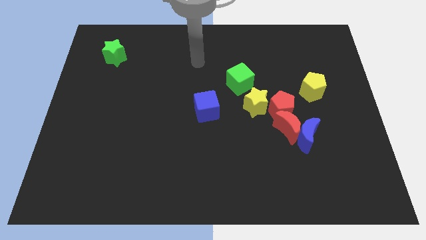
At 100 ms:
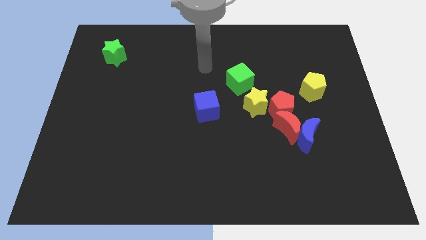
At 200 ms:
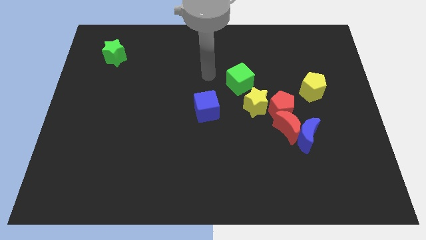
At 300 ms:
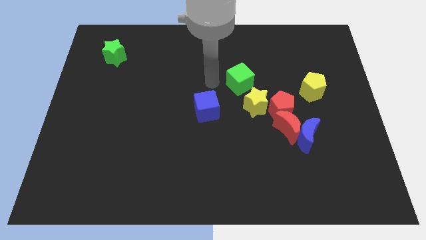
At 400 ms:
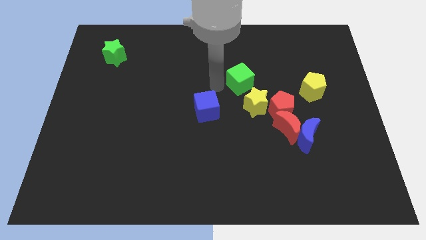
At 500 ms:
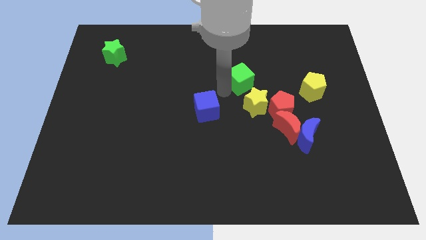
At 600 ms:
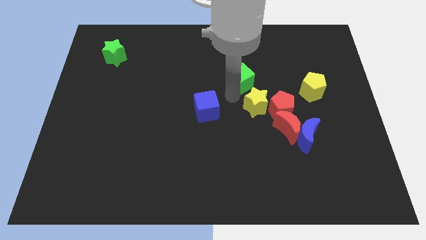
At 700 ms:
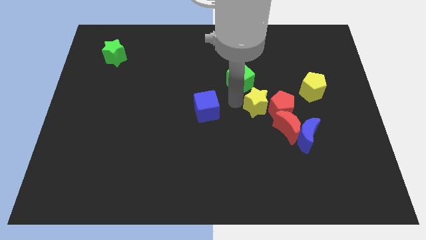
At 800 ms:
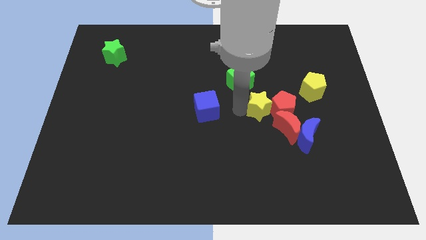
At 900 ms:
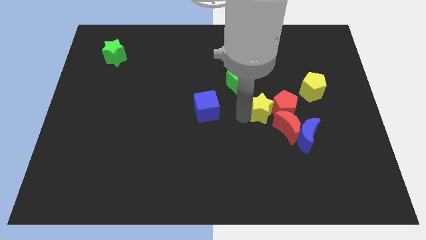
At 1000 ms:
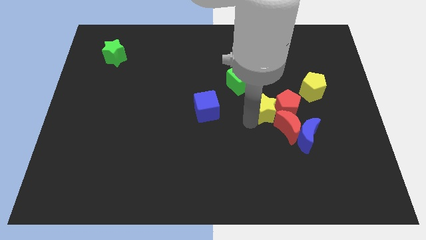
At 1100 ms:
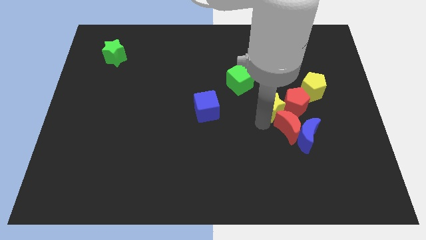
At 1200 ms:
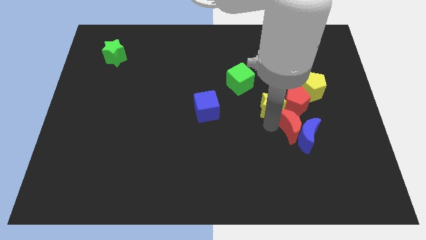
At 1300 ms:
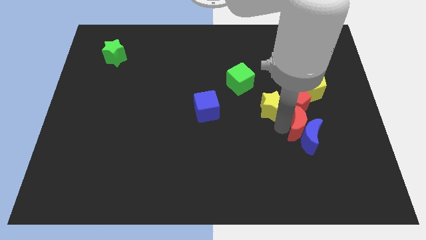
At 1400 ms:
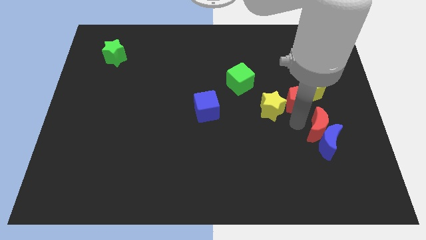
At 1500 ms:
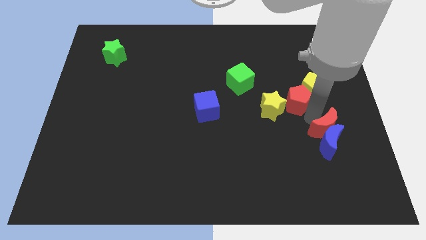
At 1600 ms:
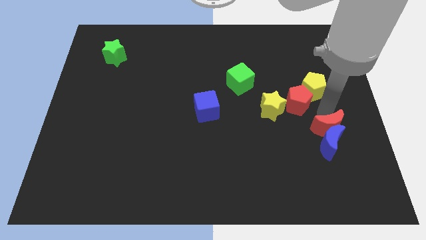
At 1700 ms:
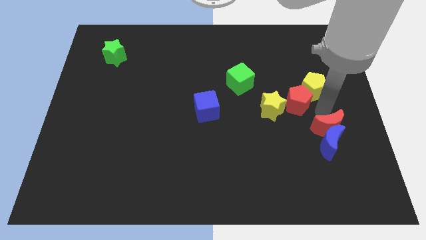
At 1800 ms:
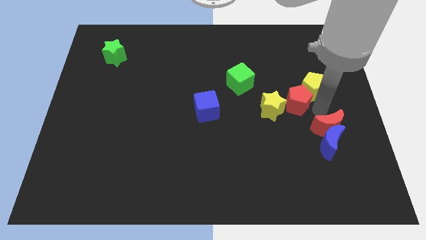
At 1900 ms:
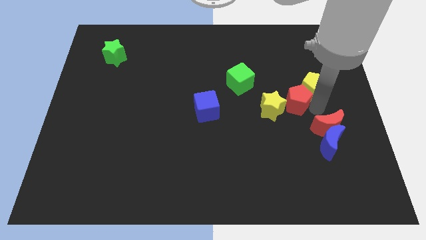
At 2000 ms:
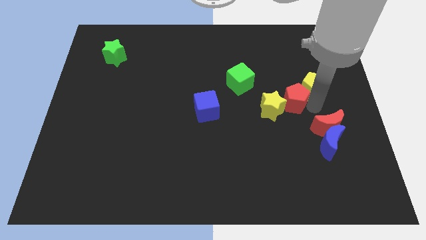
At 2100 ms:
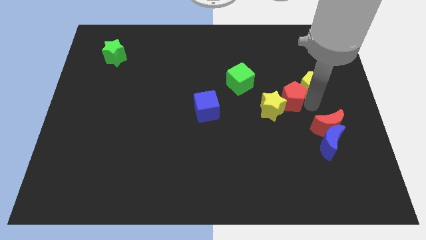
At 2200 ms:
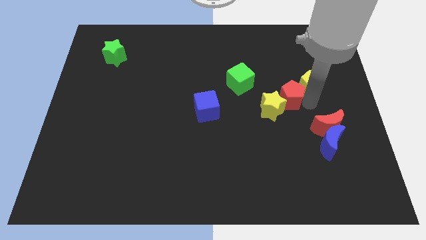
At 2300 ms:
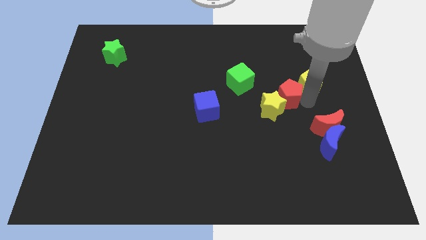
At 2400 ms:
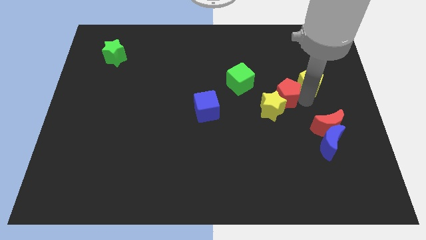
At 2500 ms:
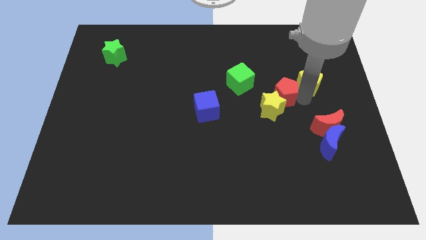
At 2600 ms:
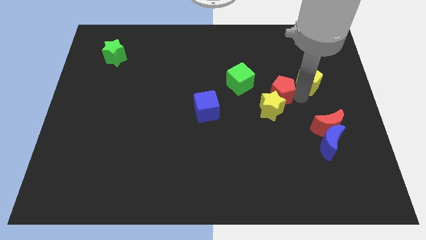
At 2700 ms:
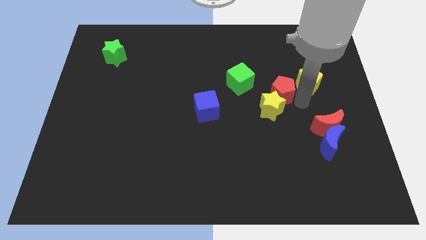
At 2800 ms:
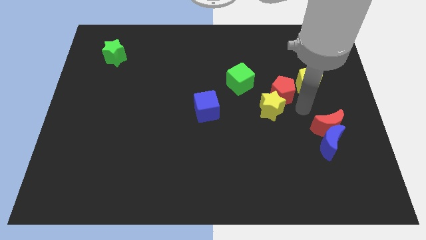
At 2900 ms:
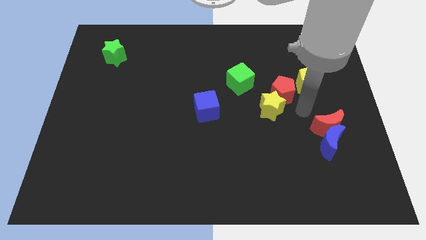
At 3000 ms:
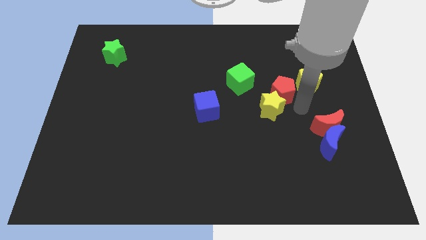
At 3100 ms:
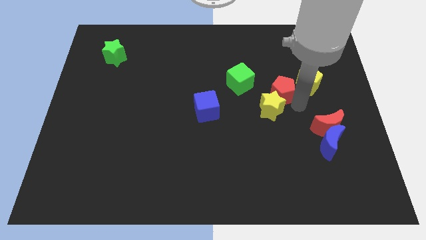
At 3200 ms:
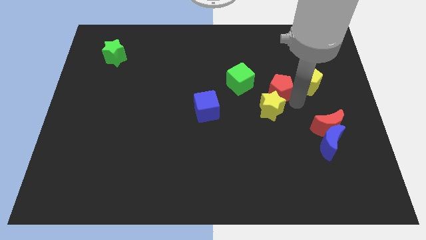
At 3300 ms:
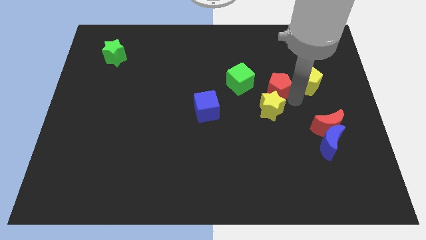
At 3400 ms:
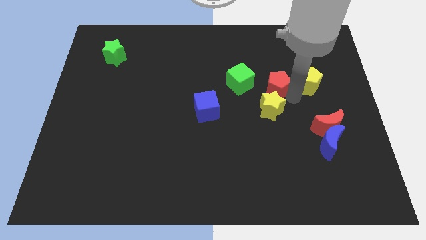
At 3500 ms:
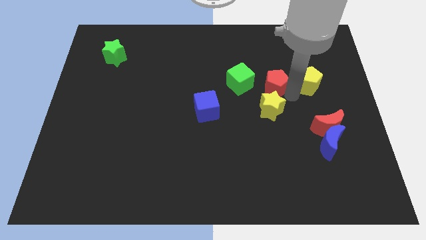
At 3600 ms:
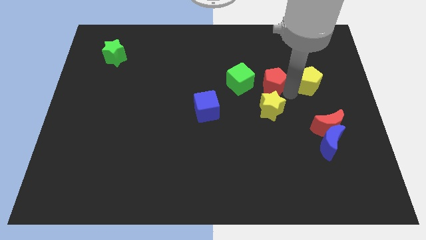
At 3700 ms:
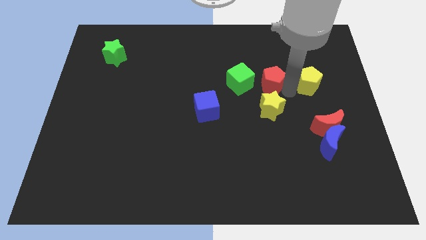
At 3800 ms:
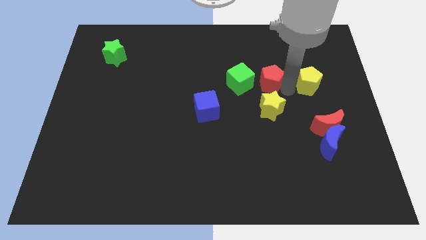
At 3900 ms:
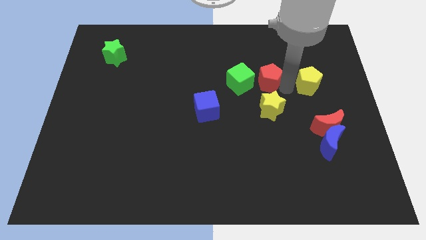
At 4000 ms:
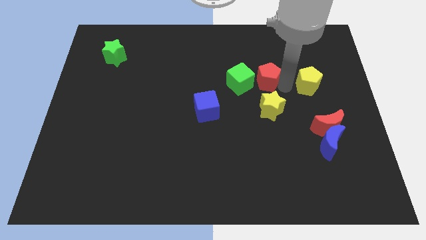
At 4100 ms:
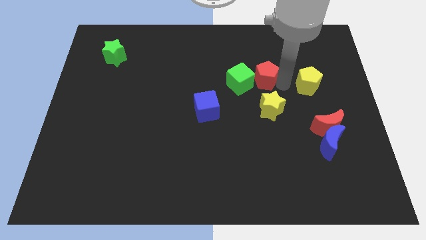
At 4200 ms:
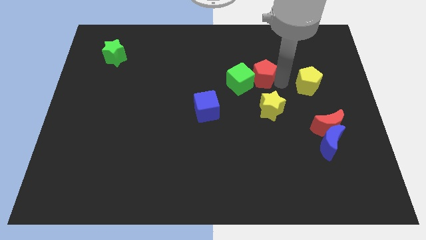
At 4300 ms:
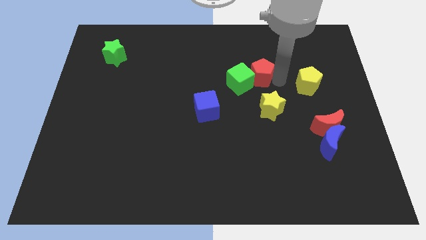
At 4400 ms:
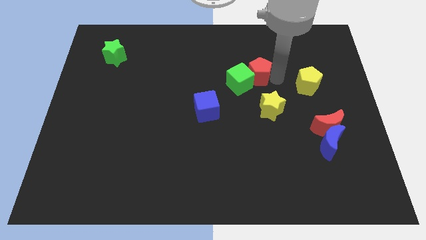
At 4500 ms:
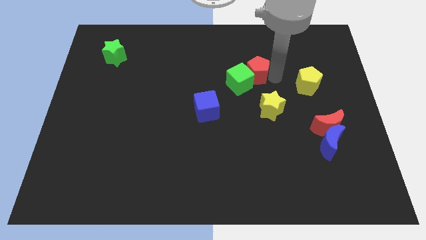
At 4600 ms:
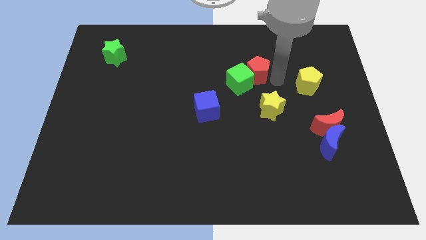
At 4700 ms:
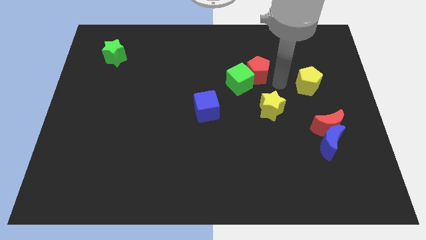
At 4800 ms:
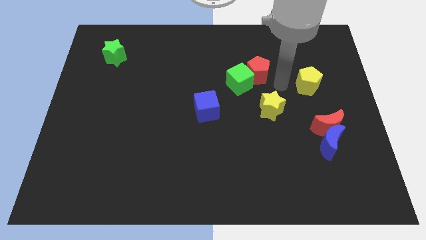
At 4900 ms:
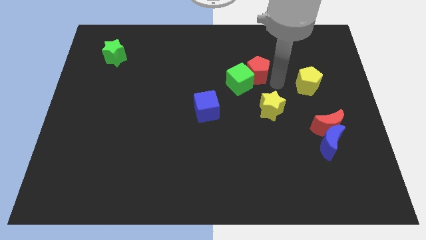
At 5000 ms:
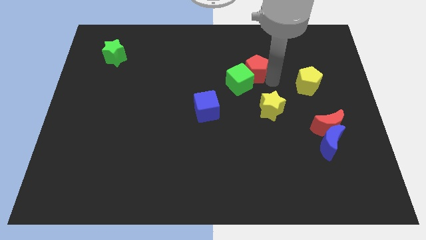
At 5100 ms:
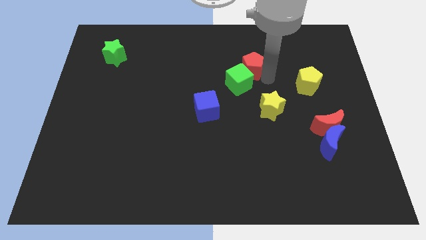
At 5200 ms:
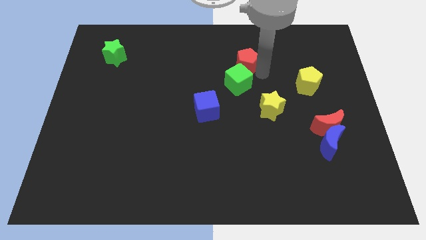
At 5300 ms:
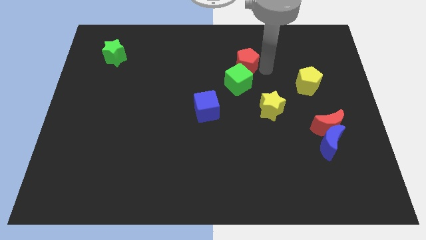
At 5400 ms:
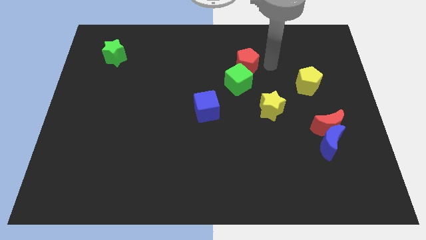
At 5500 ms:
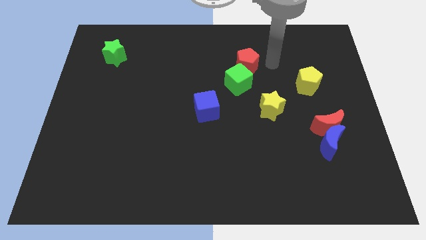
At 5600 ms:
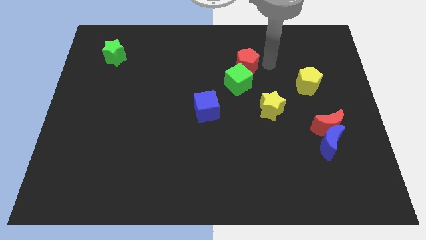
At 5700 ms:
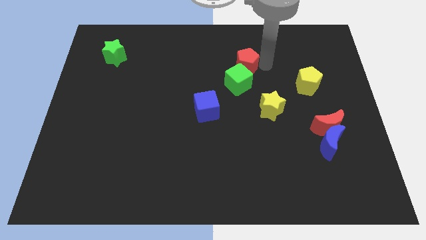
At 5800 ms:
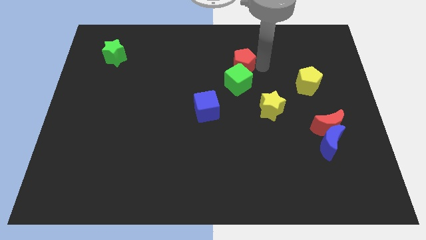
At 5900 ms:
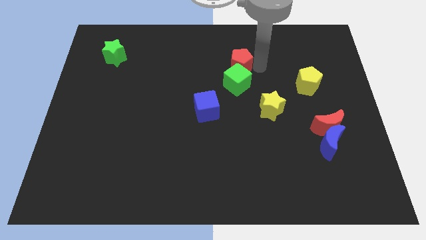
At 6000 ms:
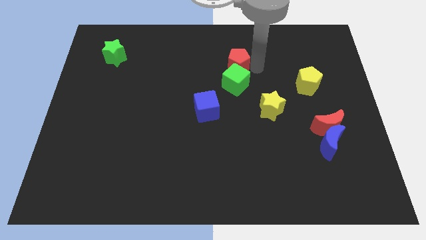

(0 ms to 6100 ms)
slide the red pentagon to the top left of the green cube

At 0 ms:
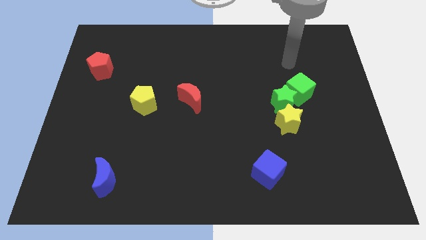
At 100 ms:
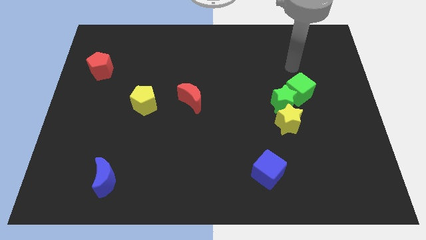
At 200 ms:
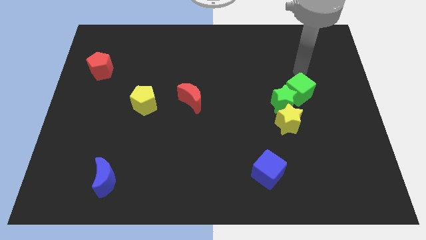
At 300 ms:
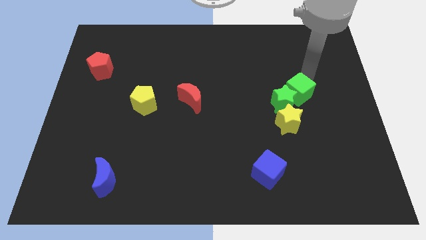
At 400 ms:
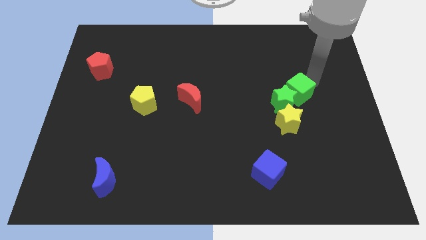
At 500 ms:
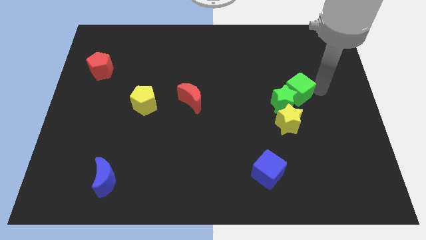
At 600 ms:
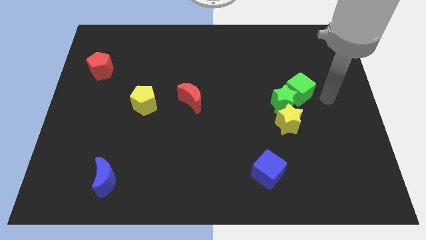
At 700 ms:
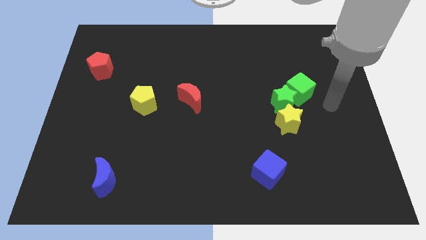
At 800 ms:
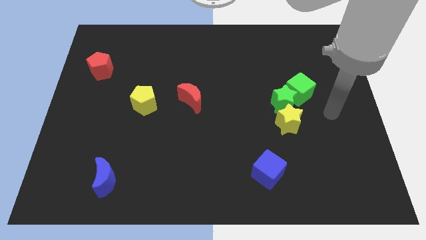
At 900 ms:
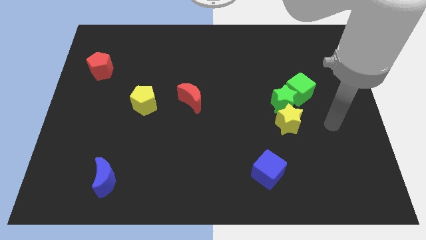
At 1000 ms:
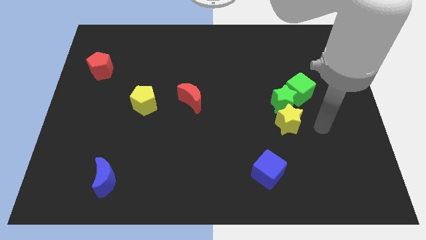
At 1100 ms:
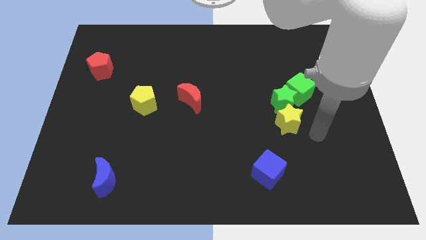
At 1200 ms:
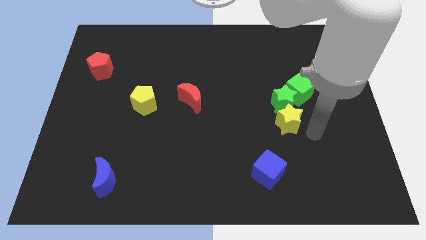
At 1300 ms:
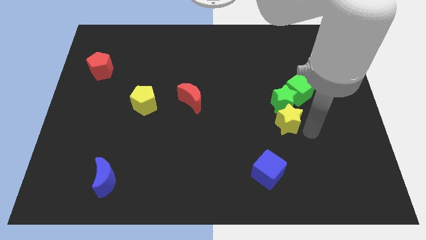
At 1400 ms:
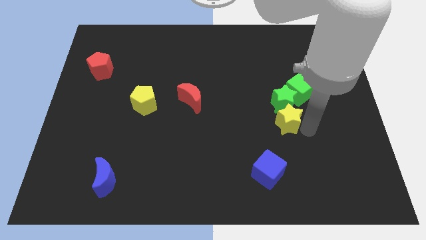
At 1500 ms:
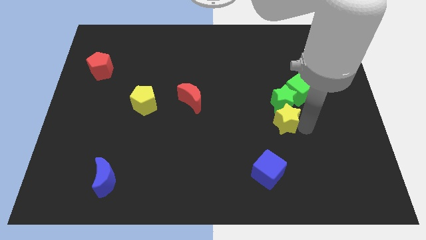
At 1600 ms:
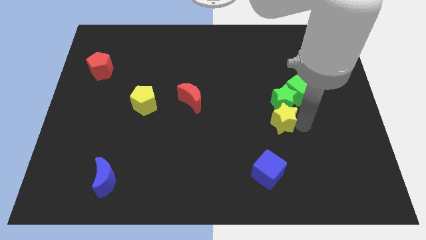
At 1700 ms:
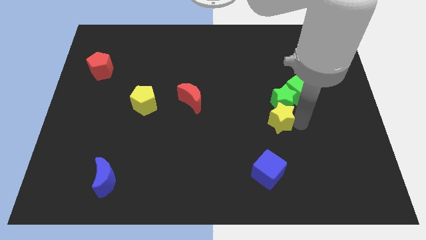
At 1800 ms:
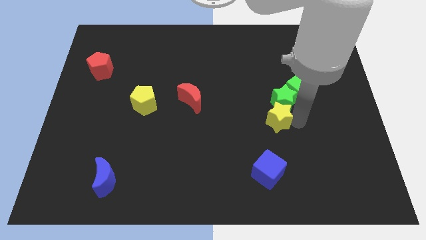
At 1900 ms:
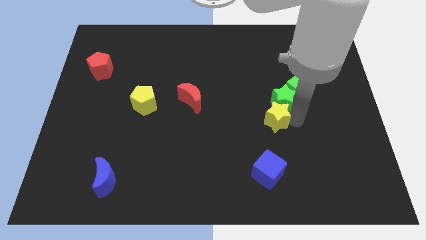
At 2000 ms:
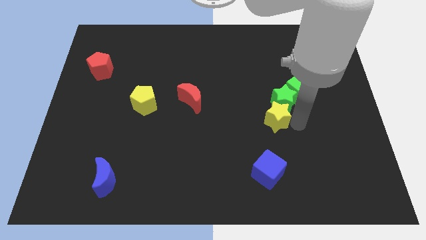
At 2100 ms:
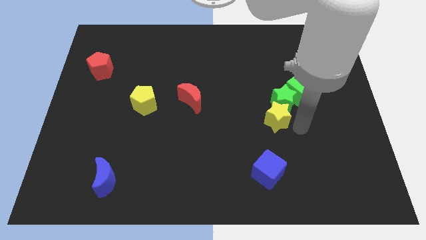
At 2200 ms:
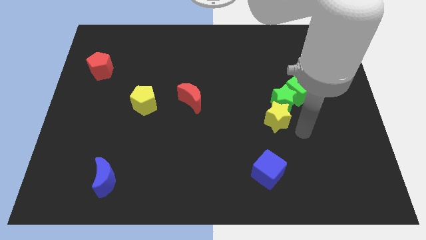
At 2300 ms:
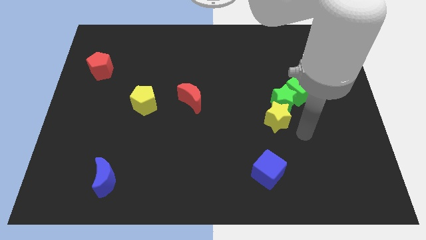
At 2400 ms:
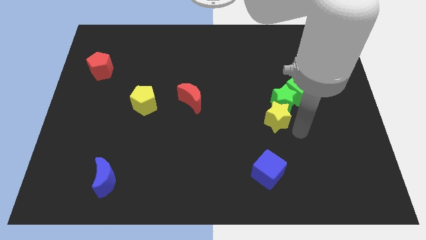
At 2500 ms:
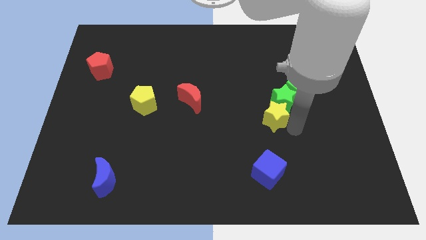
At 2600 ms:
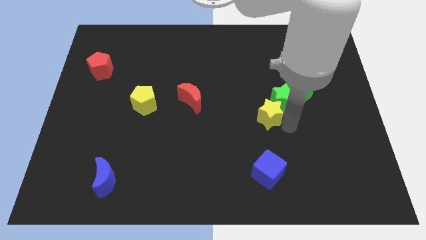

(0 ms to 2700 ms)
push the yellow star to the left side of the green star
